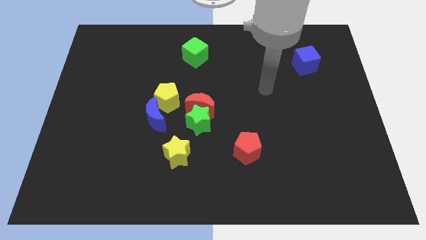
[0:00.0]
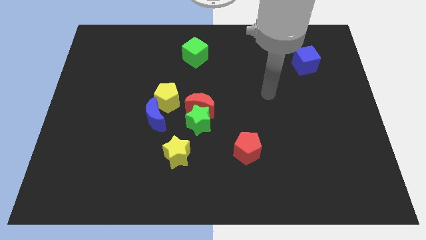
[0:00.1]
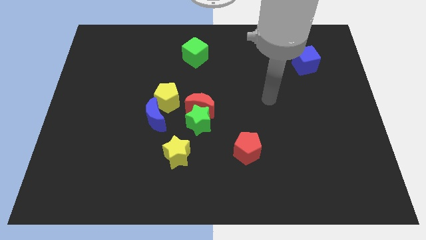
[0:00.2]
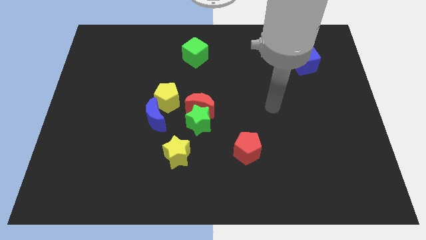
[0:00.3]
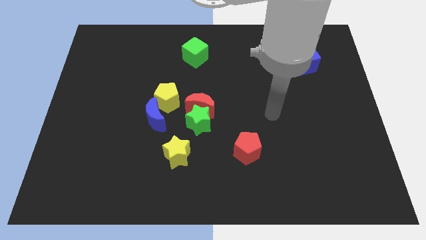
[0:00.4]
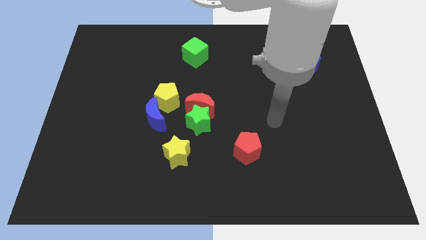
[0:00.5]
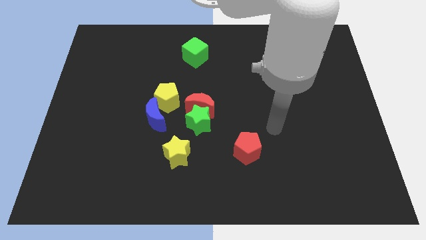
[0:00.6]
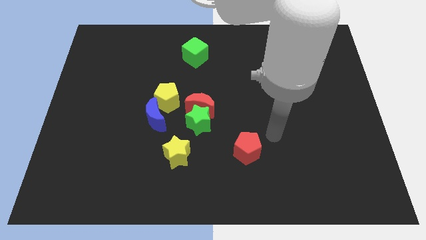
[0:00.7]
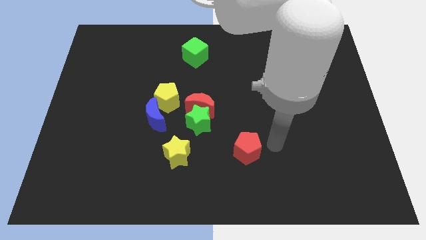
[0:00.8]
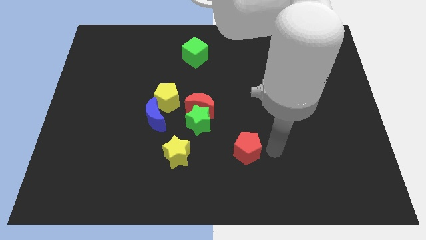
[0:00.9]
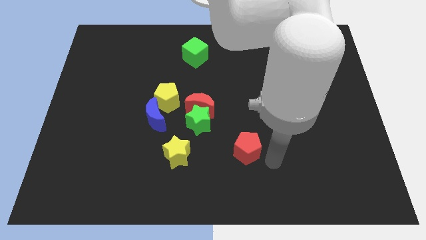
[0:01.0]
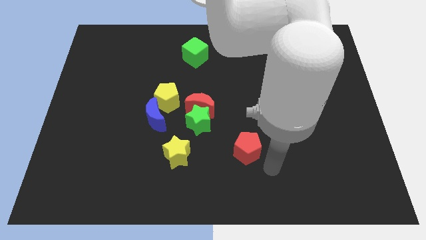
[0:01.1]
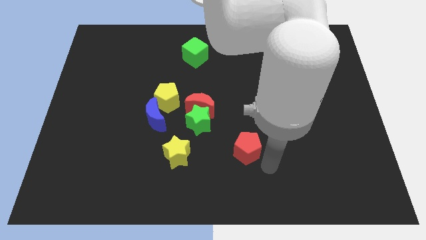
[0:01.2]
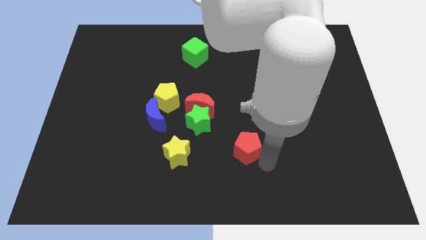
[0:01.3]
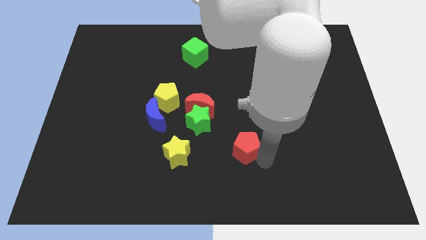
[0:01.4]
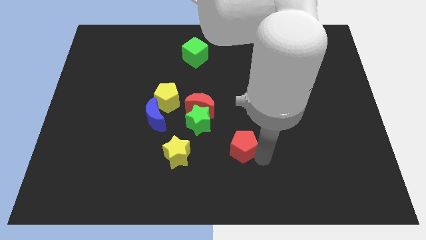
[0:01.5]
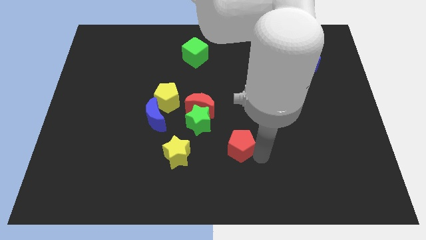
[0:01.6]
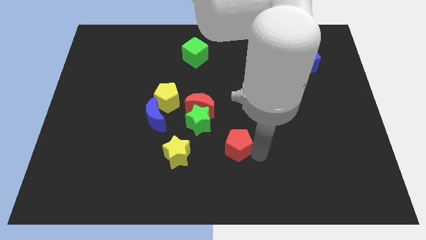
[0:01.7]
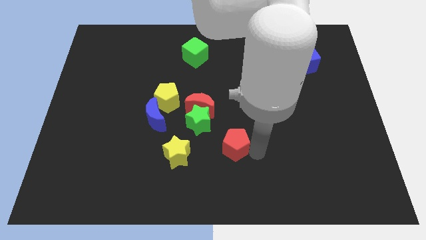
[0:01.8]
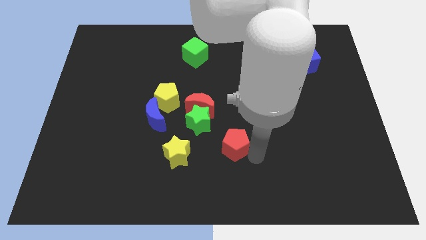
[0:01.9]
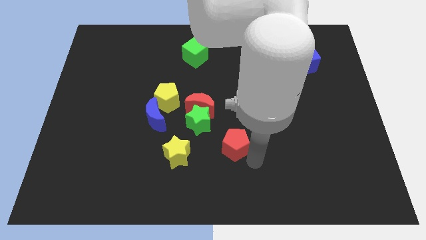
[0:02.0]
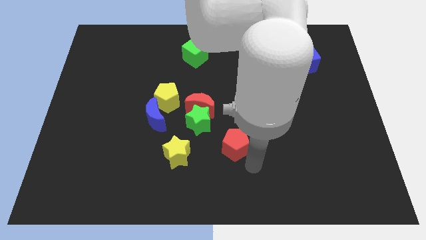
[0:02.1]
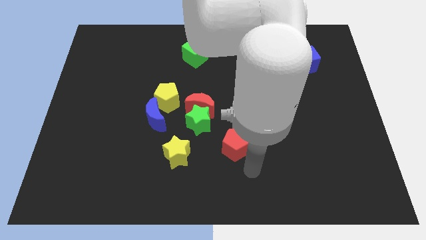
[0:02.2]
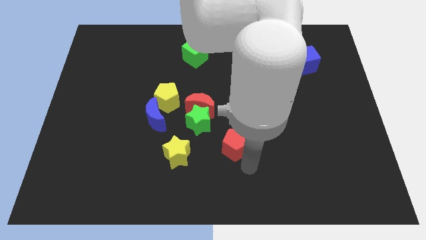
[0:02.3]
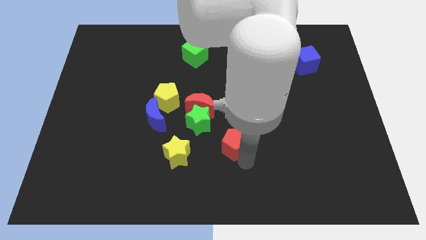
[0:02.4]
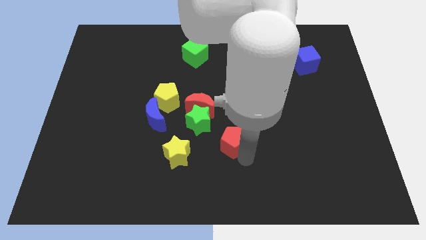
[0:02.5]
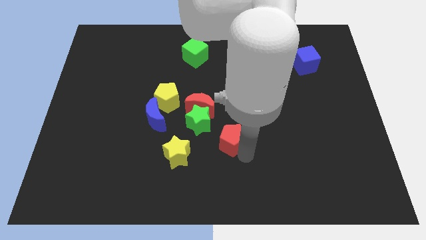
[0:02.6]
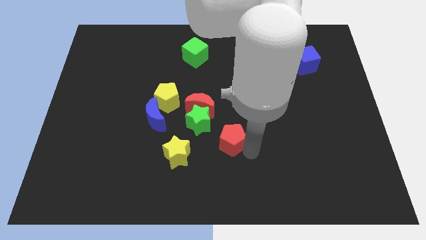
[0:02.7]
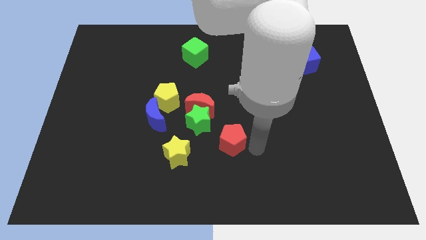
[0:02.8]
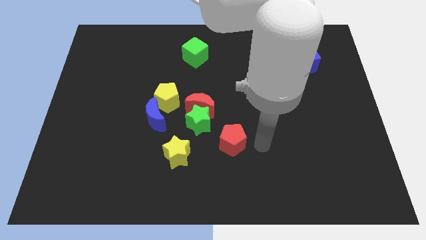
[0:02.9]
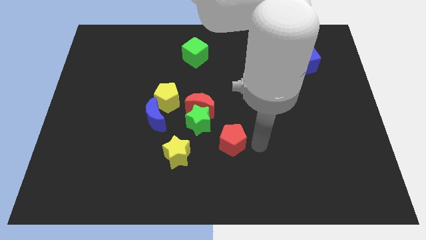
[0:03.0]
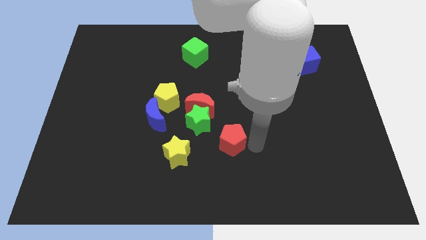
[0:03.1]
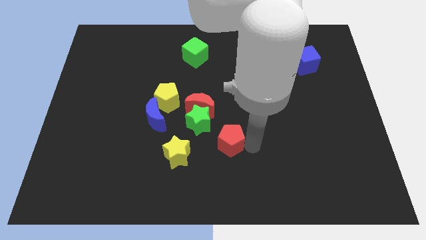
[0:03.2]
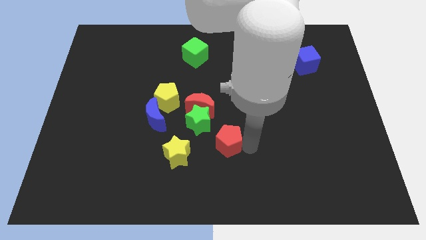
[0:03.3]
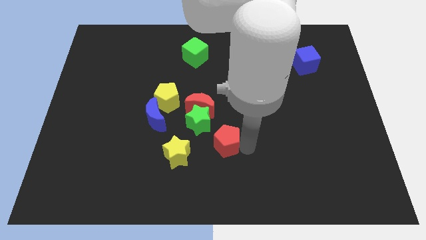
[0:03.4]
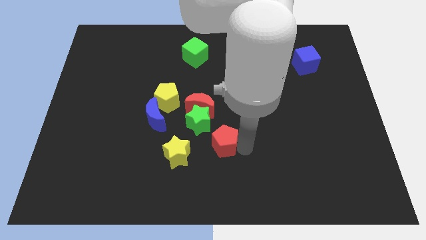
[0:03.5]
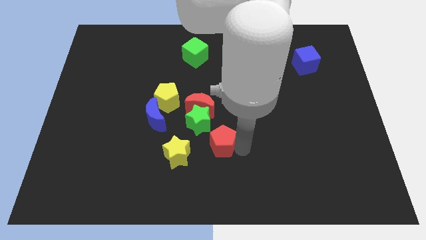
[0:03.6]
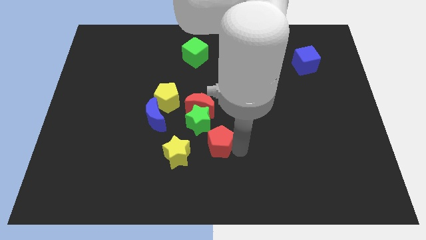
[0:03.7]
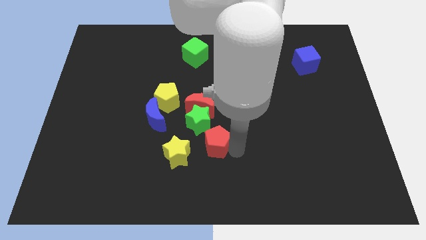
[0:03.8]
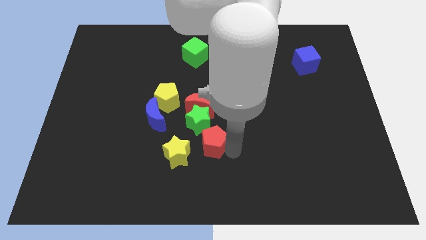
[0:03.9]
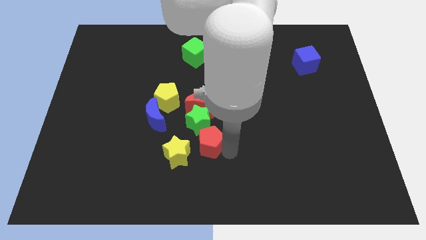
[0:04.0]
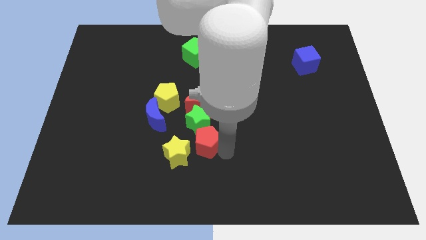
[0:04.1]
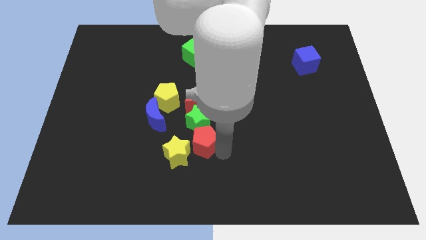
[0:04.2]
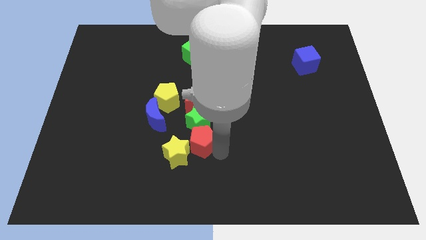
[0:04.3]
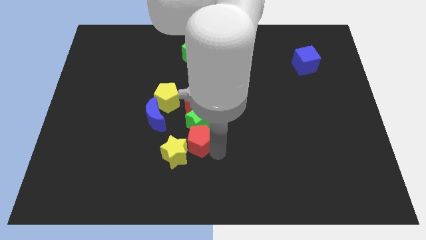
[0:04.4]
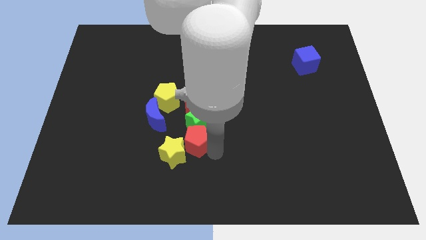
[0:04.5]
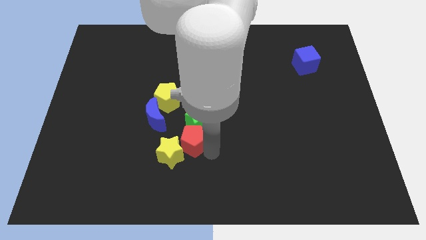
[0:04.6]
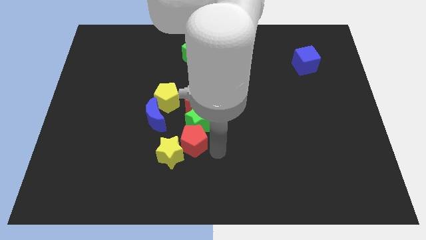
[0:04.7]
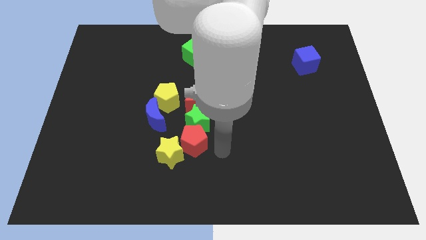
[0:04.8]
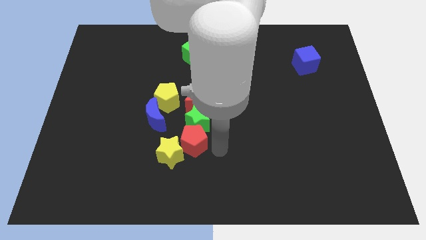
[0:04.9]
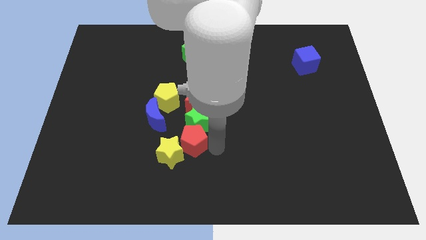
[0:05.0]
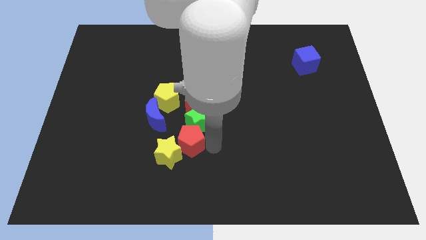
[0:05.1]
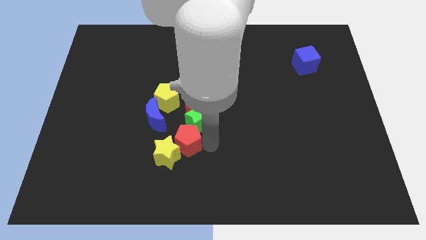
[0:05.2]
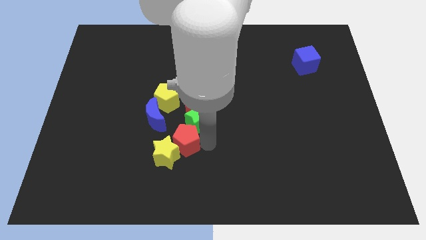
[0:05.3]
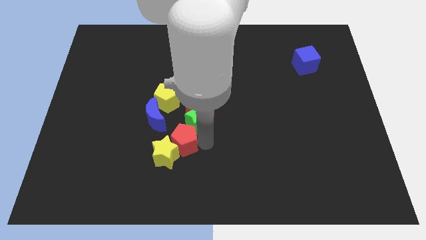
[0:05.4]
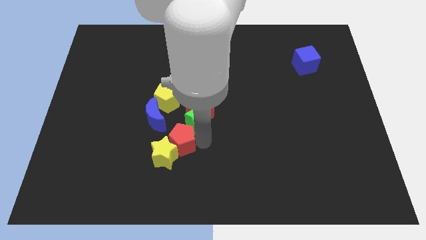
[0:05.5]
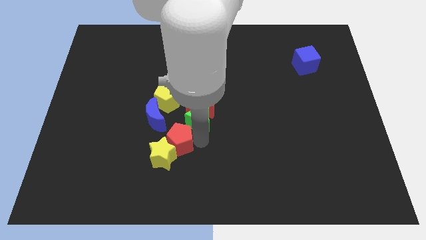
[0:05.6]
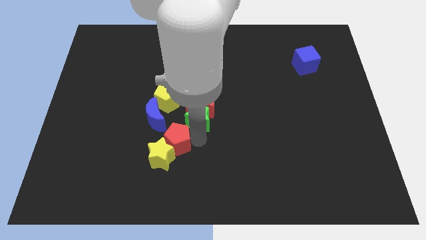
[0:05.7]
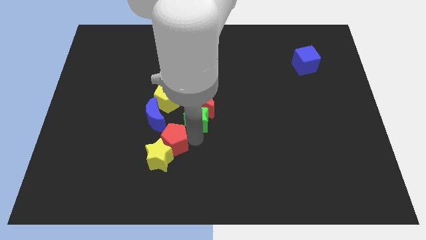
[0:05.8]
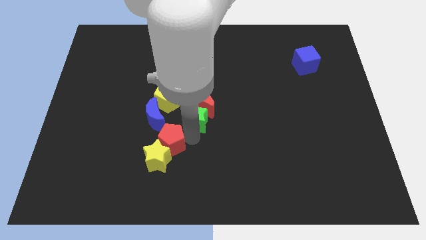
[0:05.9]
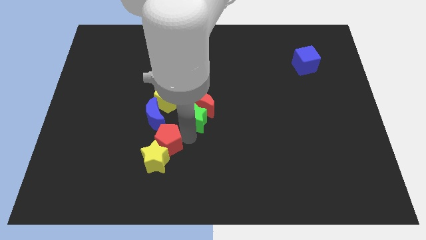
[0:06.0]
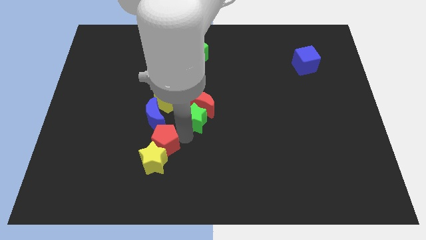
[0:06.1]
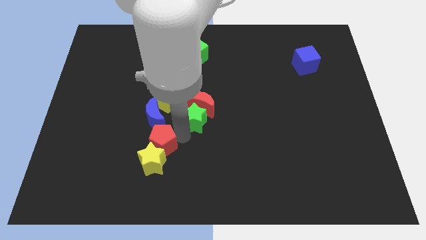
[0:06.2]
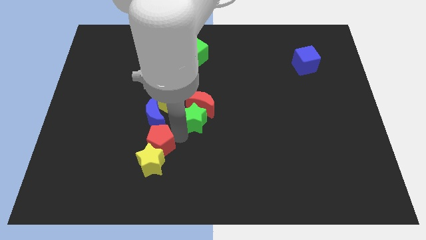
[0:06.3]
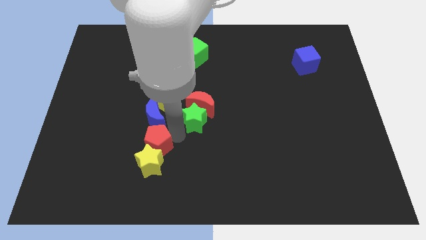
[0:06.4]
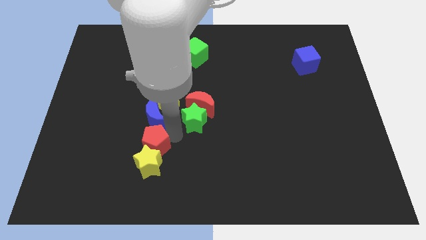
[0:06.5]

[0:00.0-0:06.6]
slide the red pentagon to the left

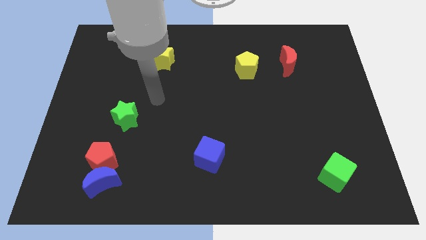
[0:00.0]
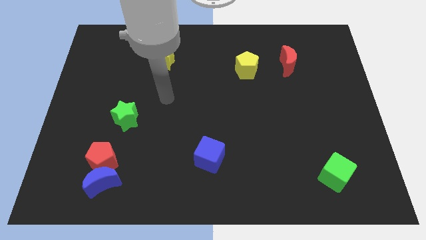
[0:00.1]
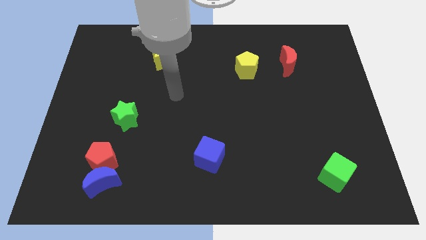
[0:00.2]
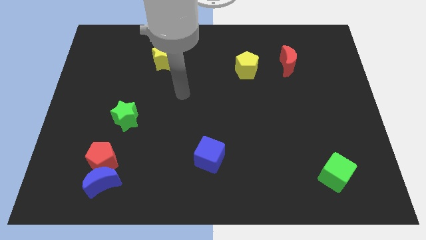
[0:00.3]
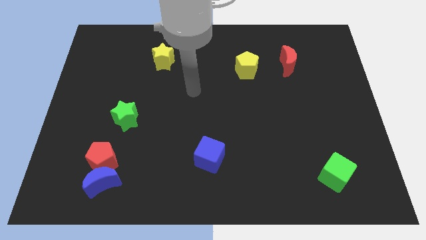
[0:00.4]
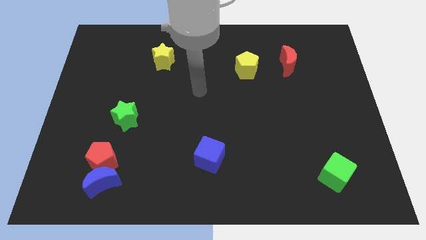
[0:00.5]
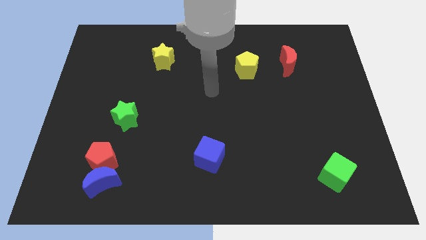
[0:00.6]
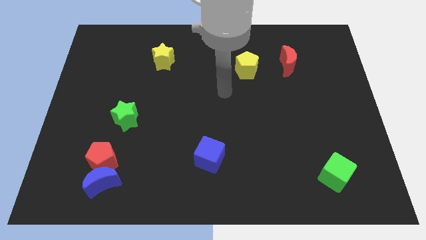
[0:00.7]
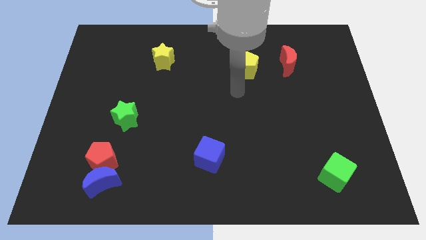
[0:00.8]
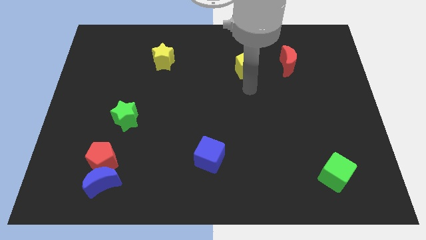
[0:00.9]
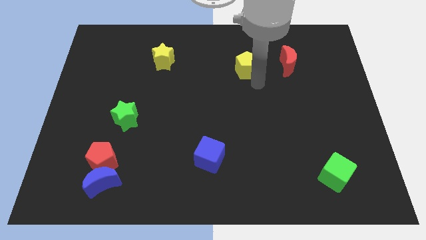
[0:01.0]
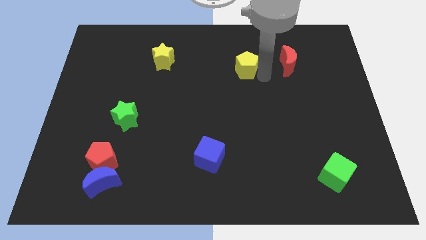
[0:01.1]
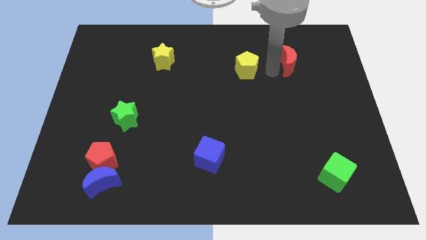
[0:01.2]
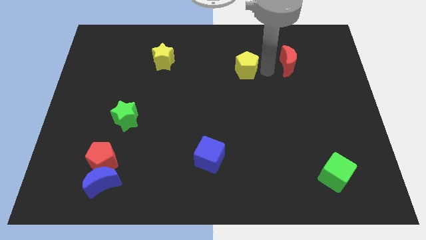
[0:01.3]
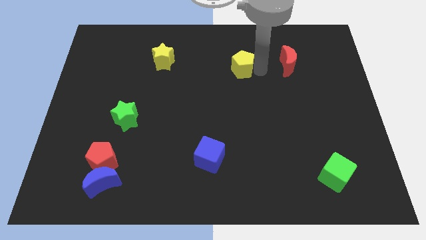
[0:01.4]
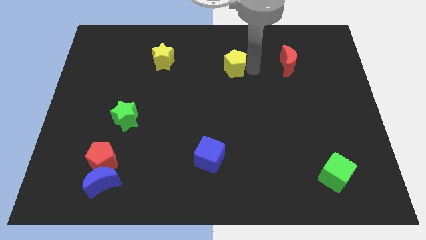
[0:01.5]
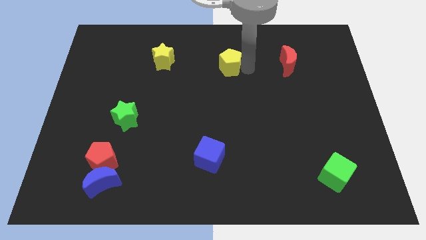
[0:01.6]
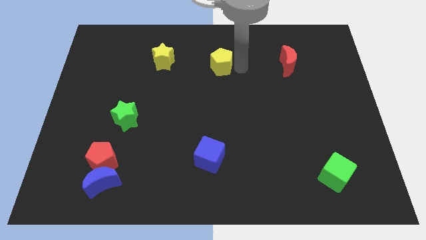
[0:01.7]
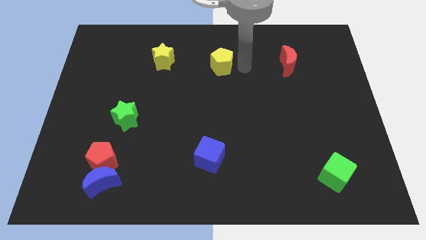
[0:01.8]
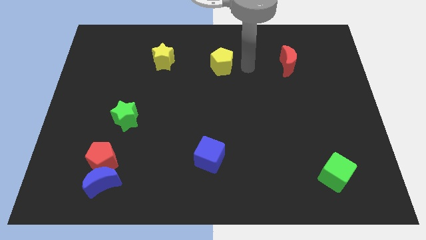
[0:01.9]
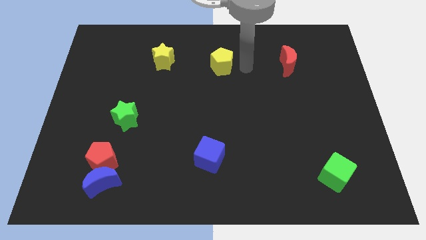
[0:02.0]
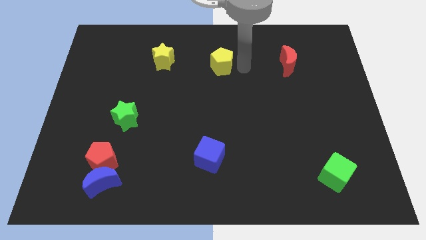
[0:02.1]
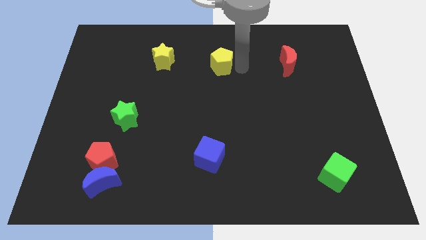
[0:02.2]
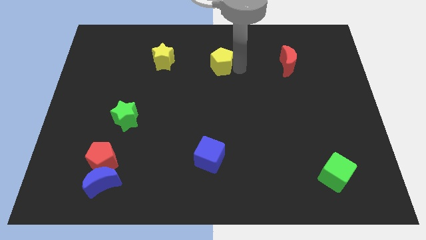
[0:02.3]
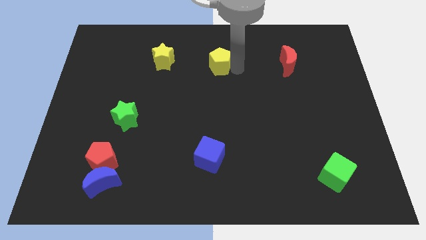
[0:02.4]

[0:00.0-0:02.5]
move the yellow pentagon left somewhat
